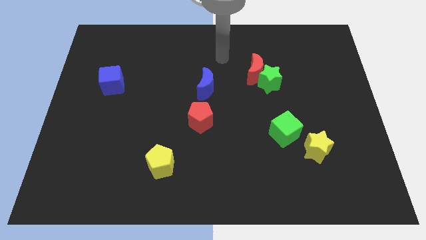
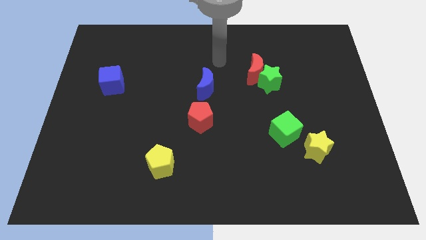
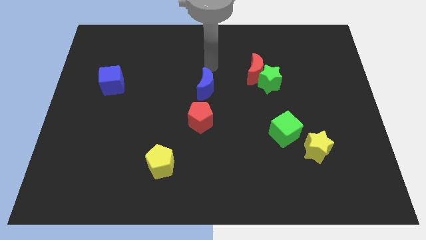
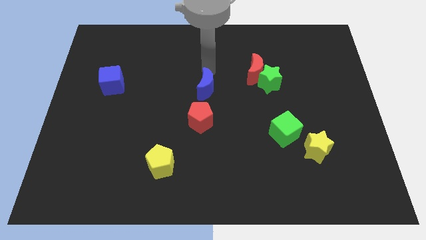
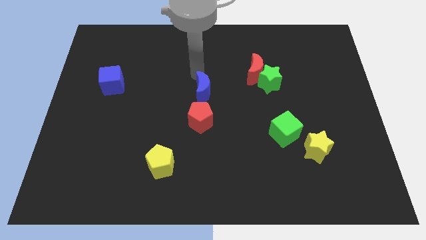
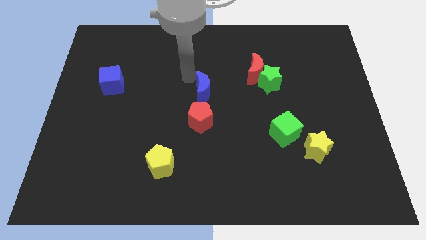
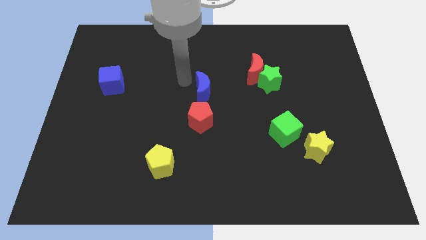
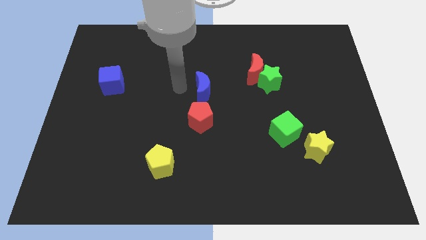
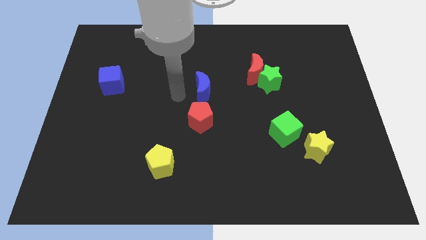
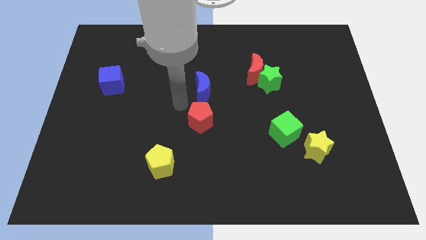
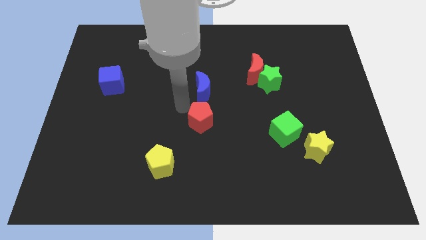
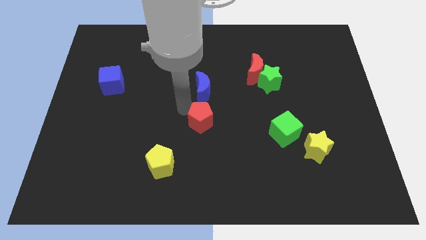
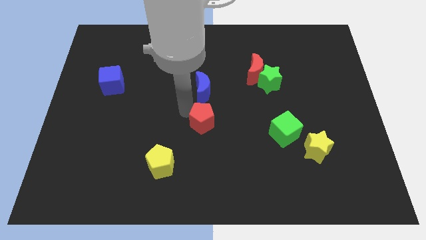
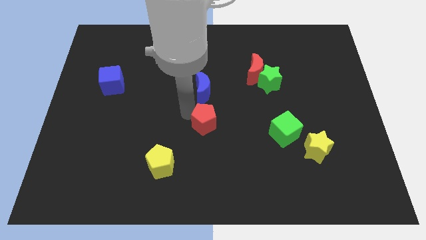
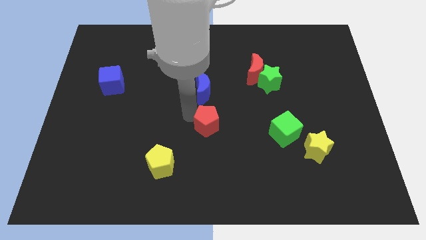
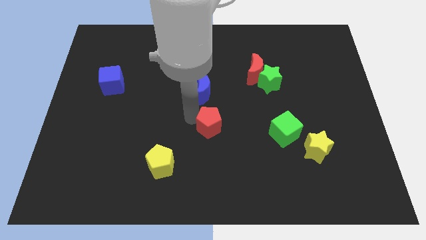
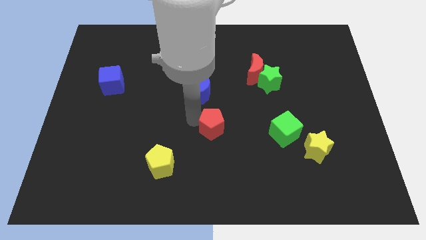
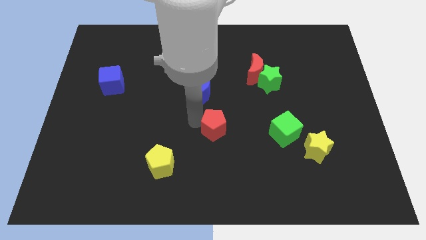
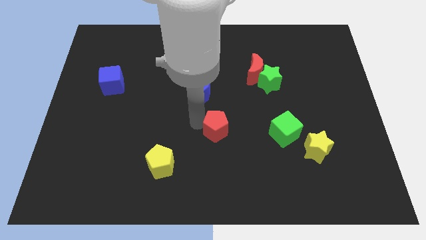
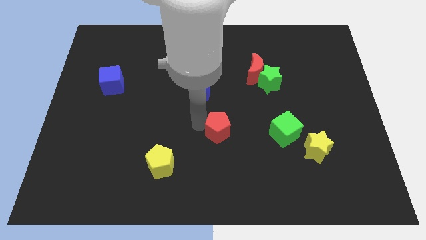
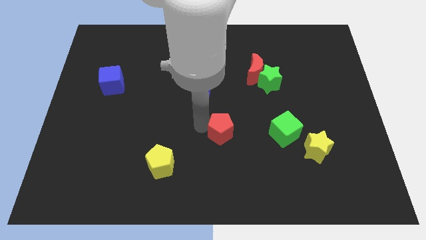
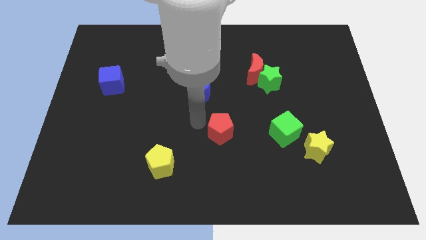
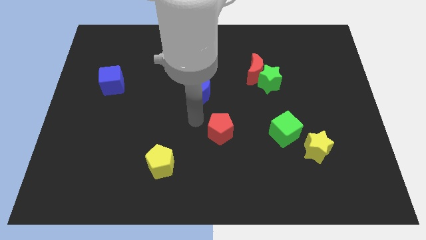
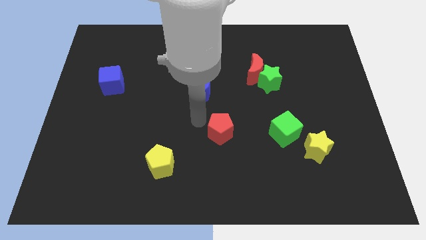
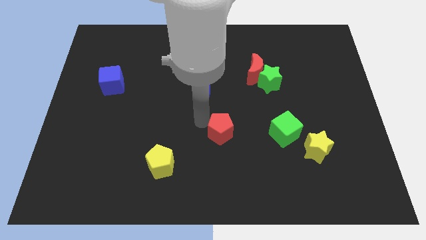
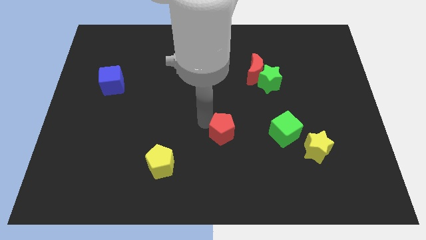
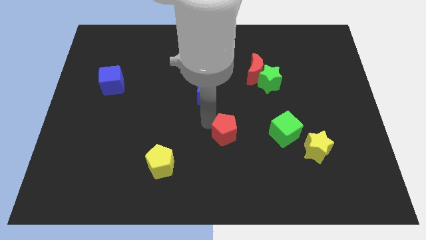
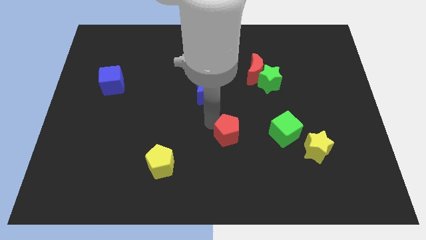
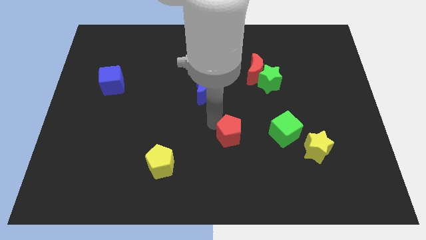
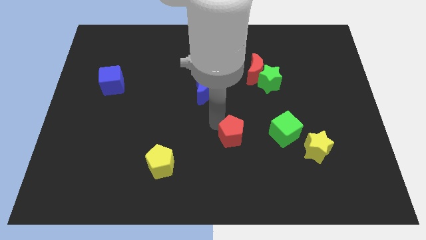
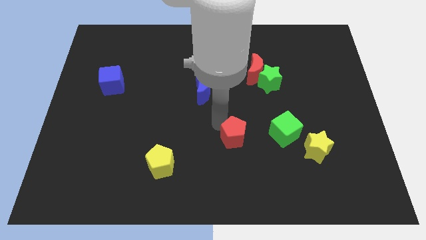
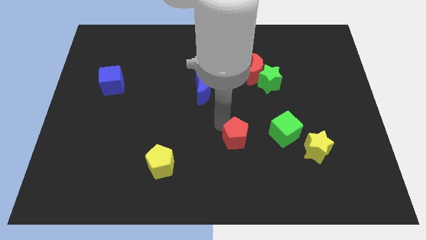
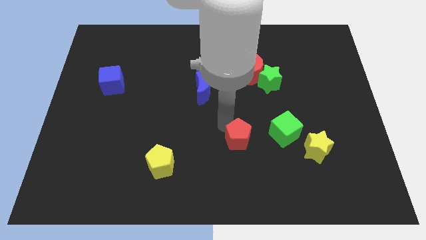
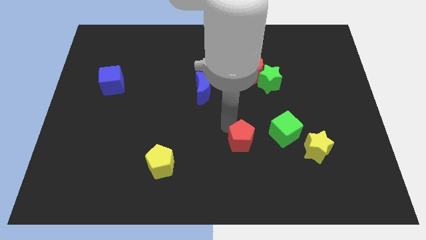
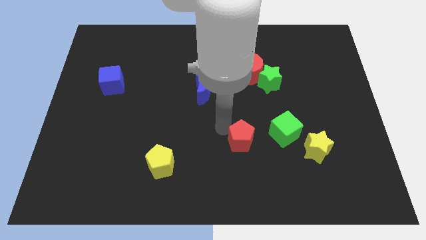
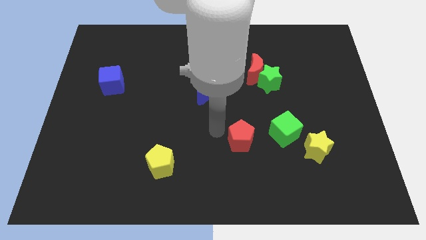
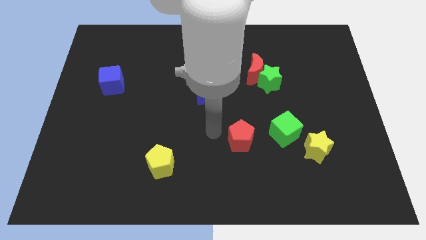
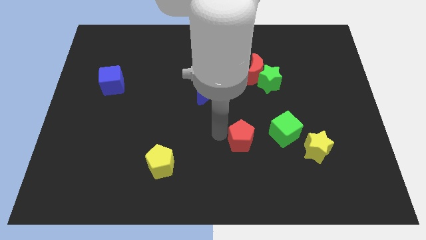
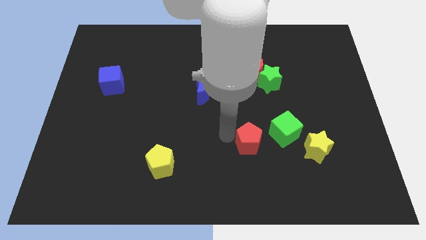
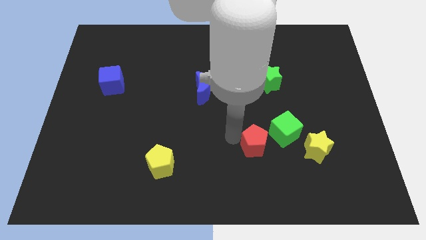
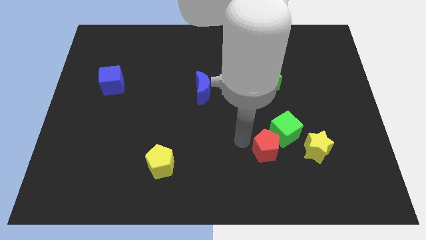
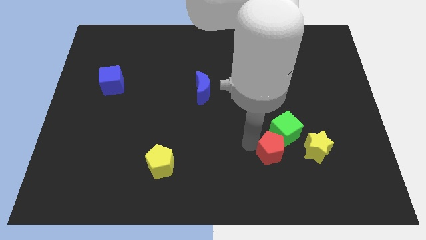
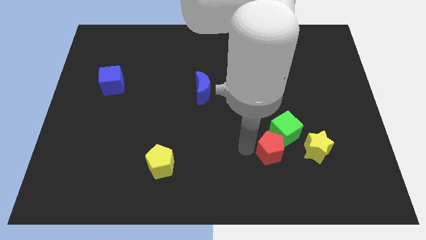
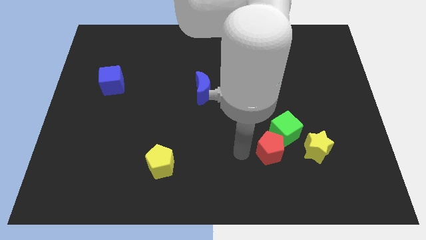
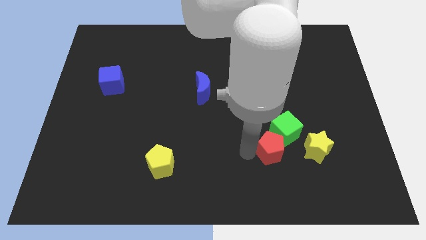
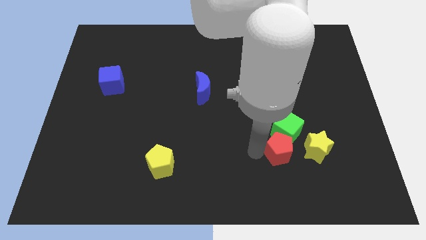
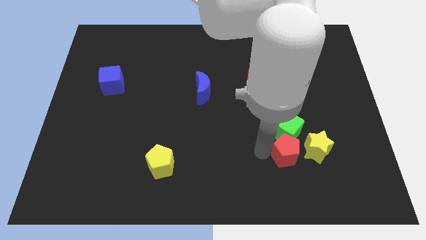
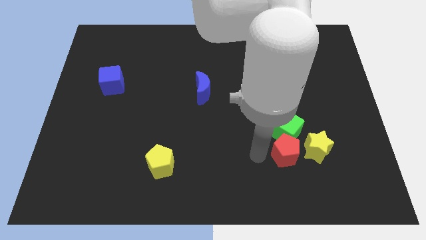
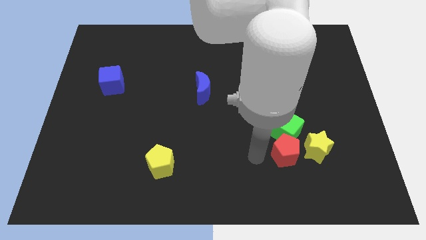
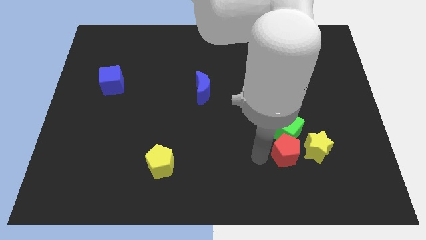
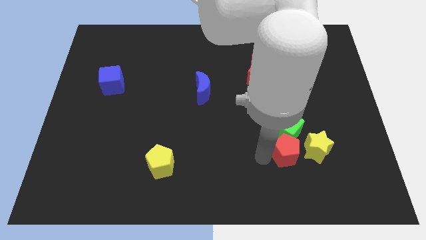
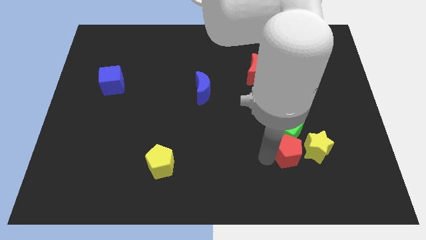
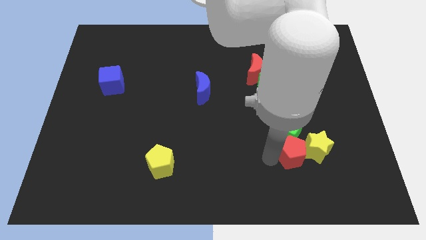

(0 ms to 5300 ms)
push the red pentagon towards the yellow star

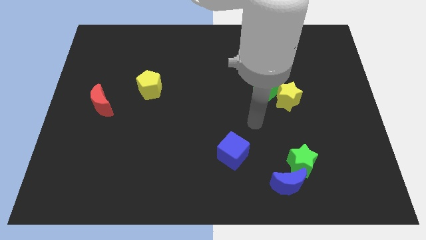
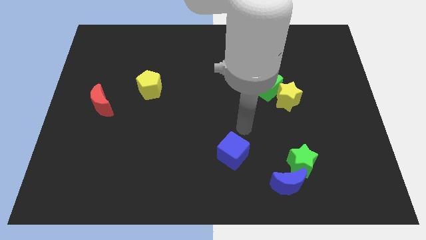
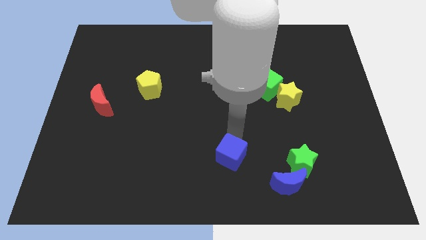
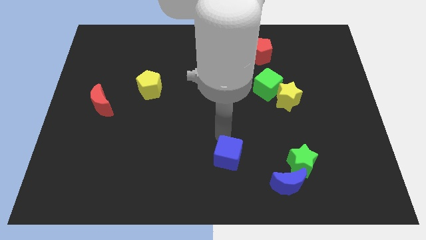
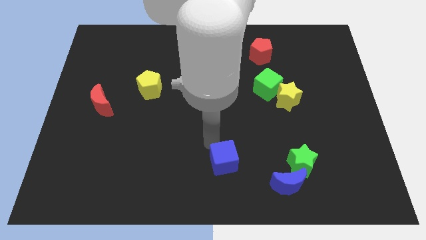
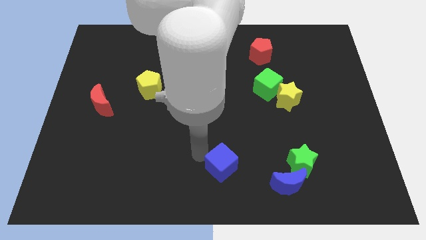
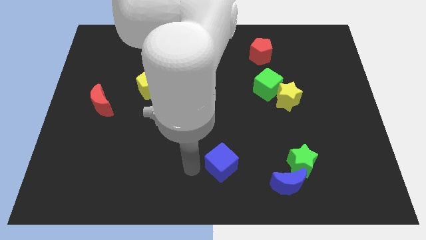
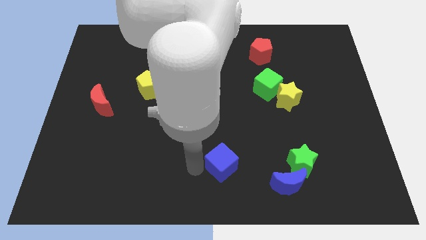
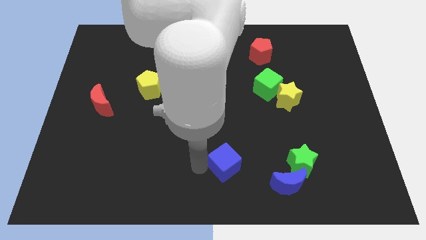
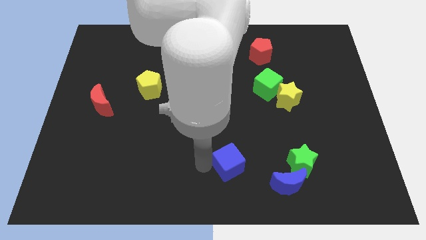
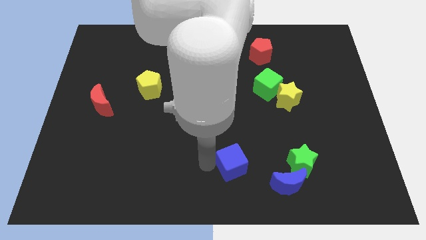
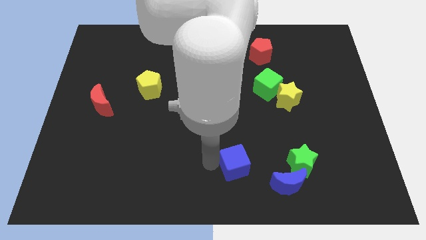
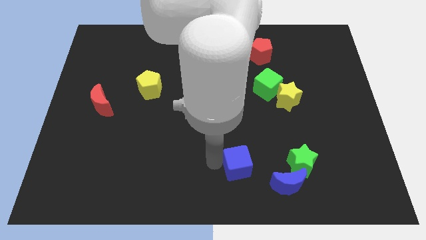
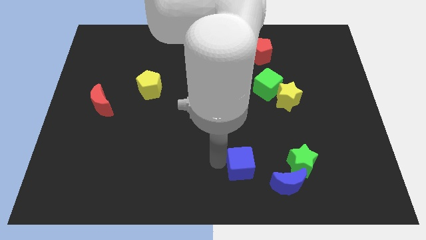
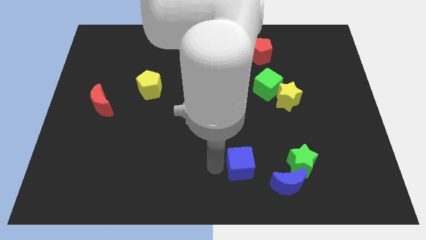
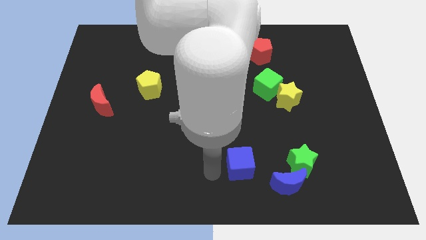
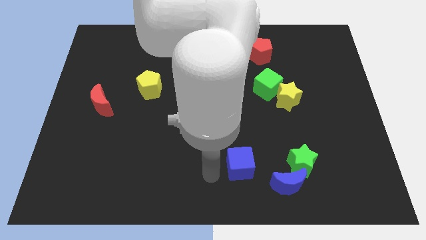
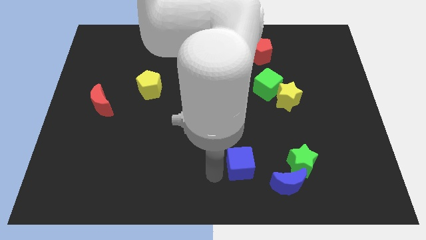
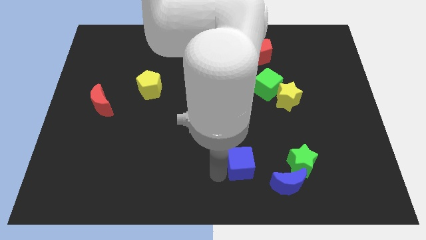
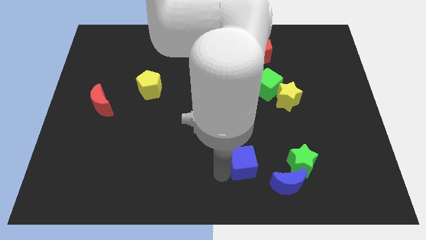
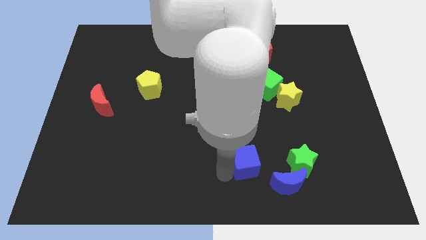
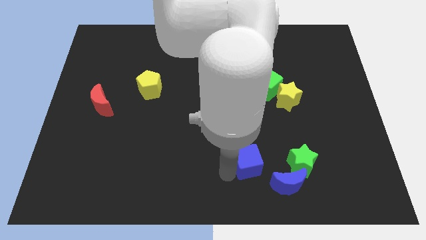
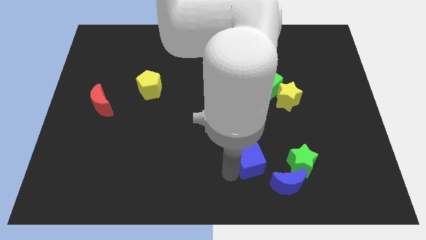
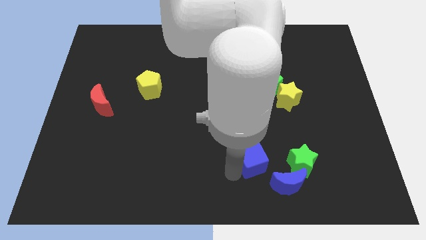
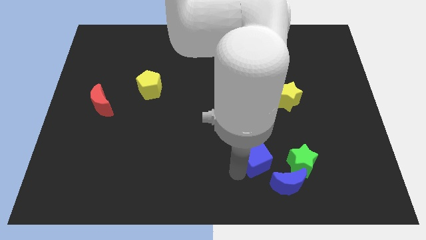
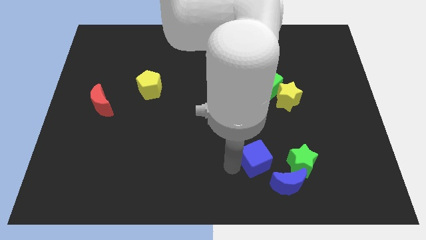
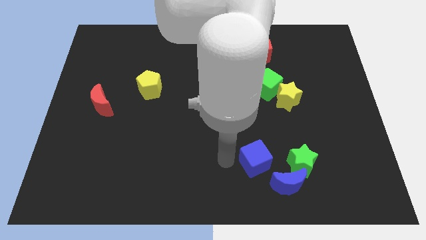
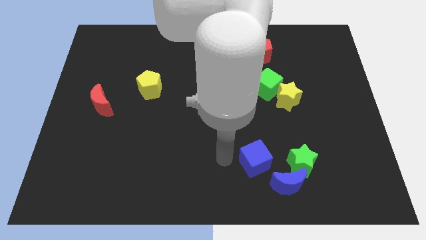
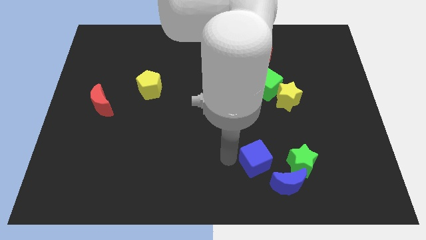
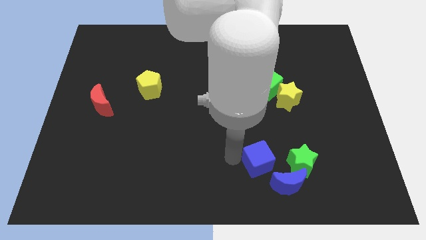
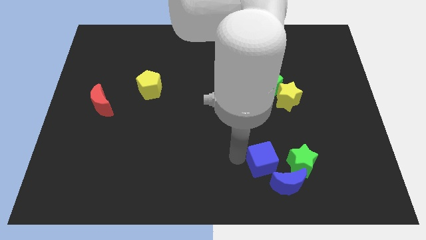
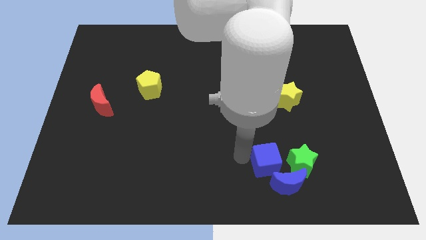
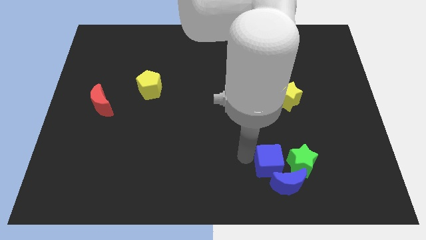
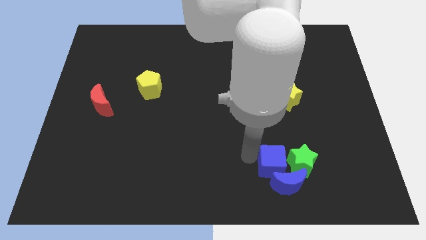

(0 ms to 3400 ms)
push the blue cube next to the green star
